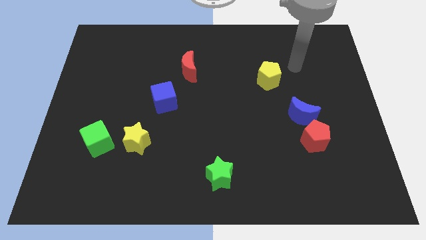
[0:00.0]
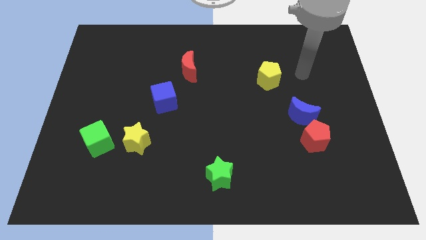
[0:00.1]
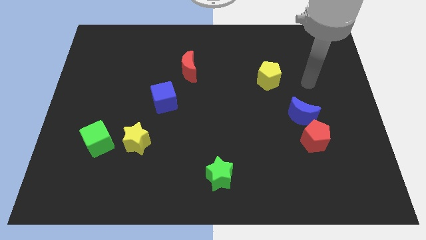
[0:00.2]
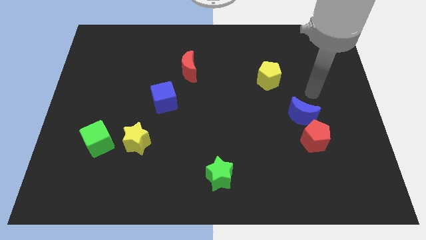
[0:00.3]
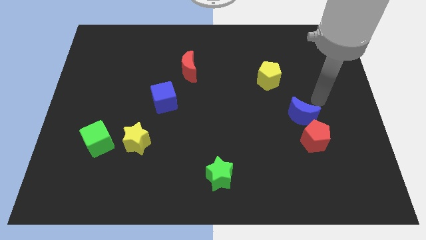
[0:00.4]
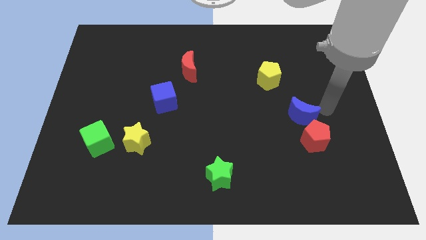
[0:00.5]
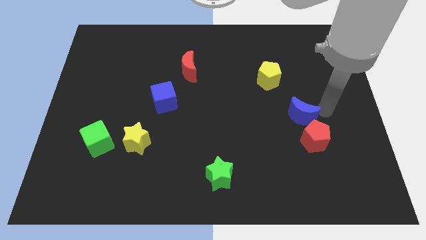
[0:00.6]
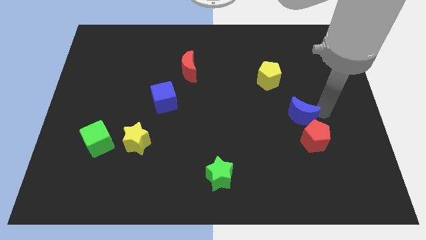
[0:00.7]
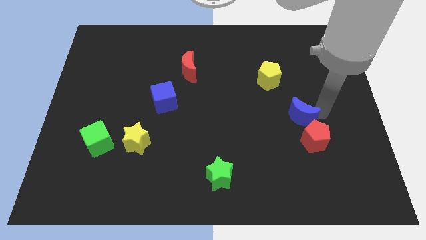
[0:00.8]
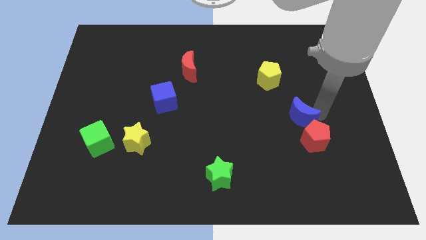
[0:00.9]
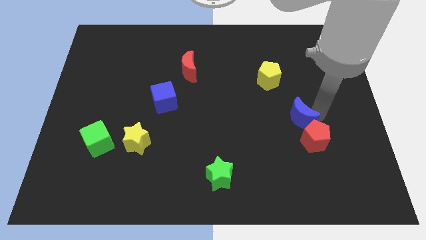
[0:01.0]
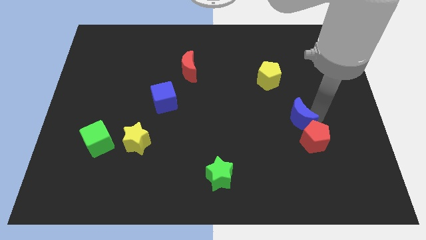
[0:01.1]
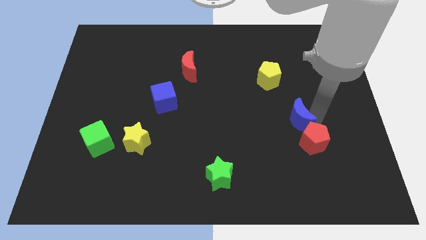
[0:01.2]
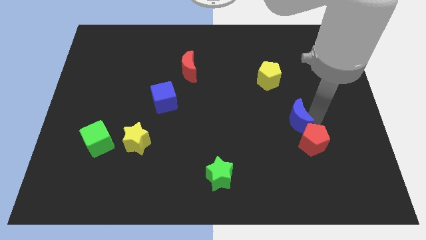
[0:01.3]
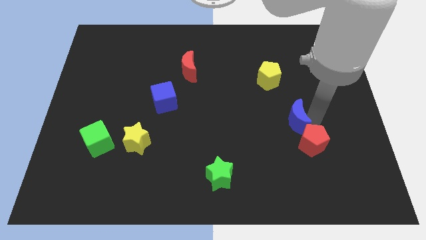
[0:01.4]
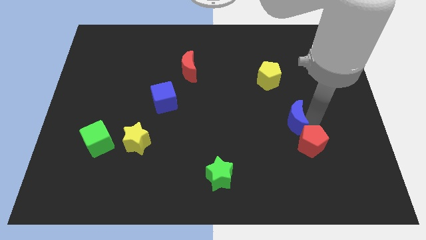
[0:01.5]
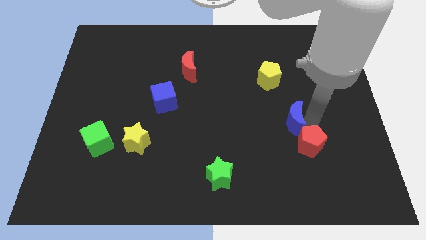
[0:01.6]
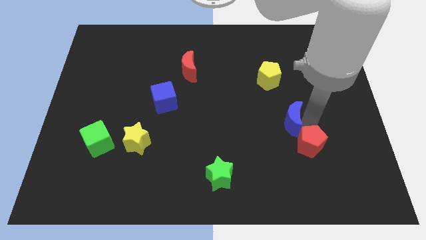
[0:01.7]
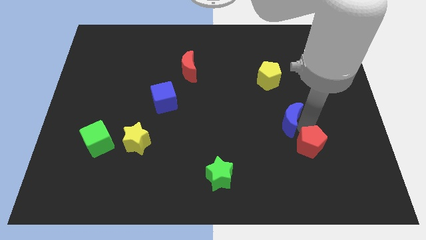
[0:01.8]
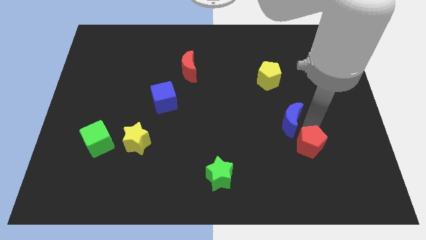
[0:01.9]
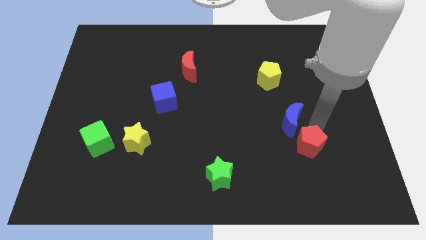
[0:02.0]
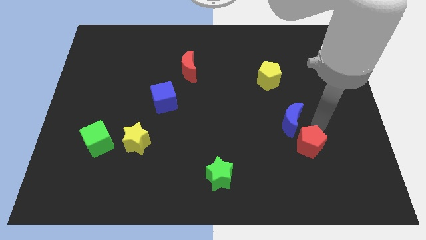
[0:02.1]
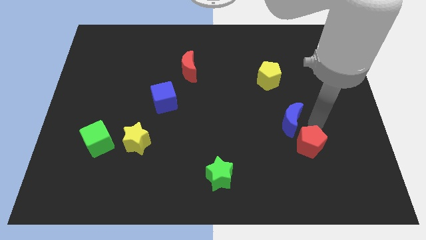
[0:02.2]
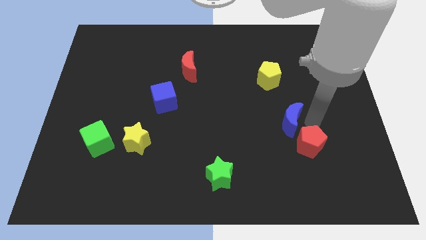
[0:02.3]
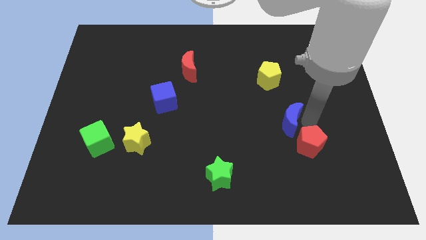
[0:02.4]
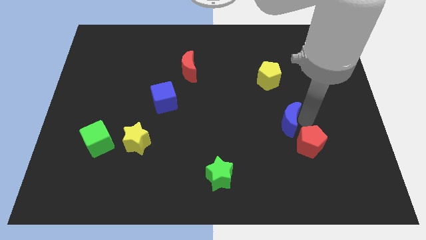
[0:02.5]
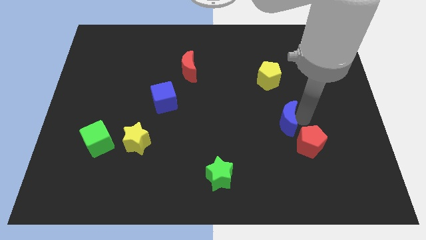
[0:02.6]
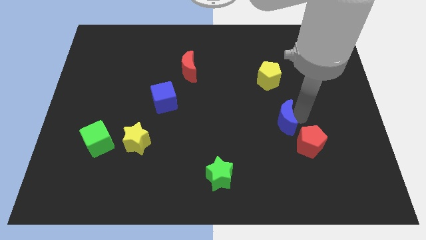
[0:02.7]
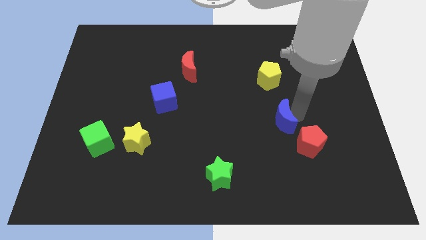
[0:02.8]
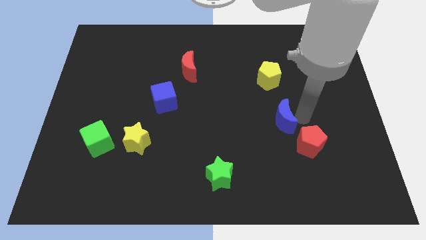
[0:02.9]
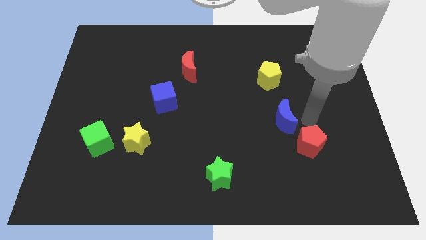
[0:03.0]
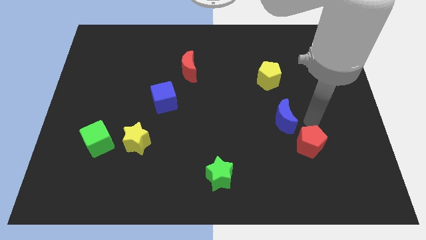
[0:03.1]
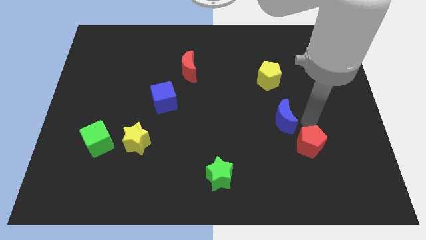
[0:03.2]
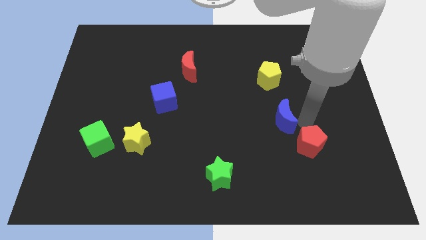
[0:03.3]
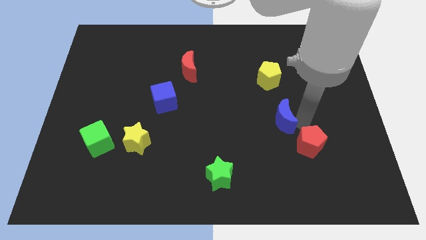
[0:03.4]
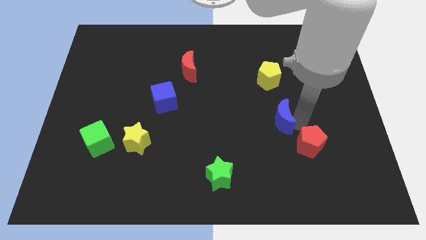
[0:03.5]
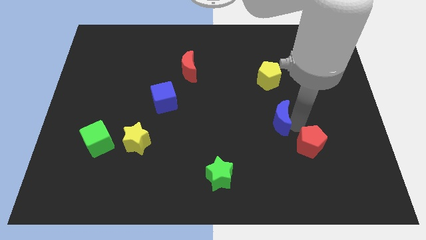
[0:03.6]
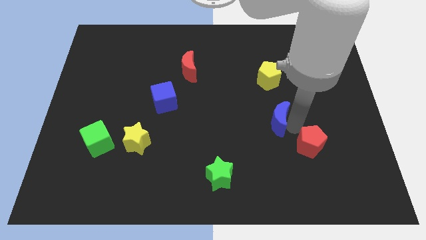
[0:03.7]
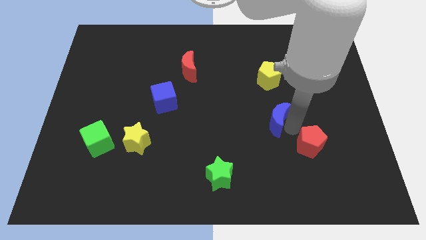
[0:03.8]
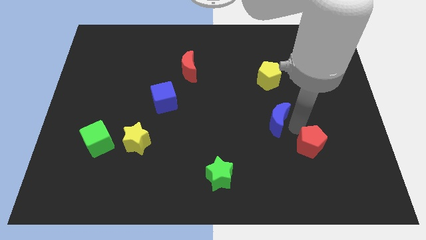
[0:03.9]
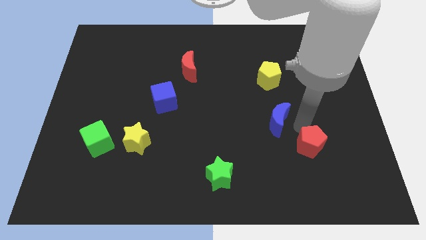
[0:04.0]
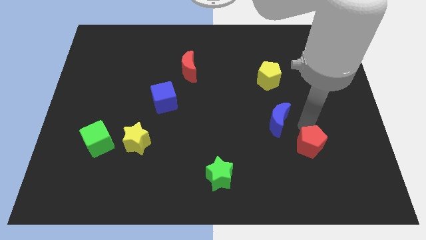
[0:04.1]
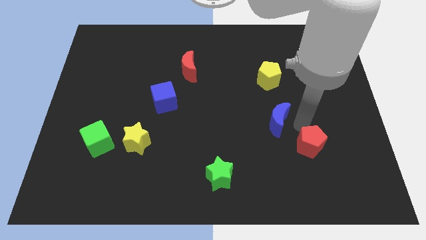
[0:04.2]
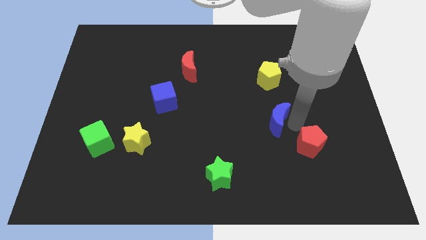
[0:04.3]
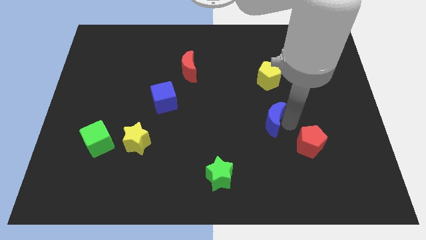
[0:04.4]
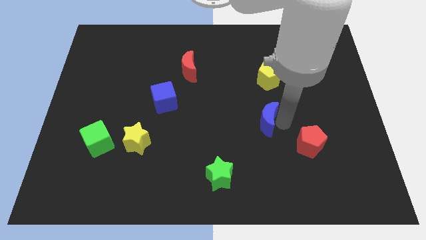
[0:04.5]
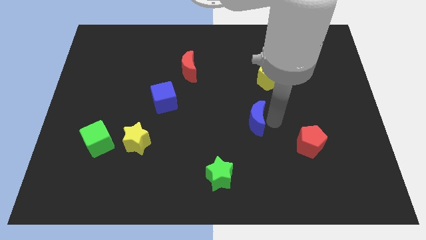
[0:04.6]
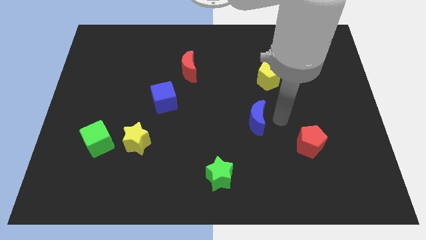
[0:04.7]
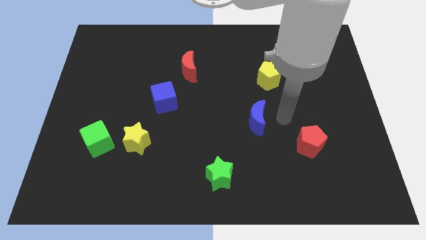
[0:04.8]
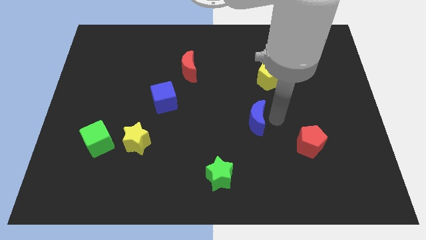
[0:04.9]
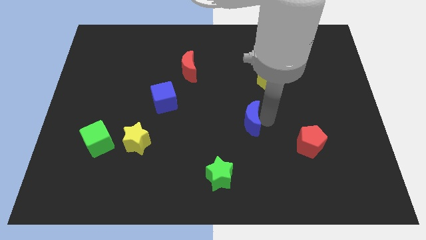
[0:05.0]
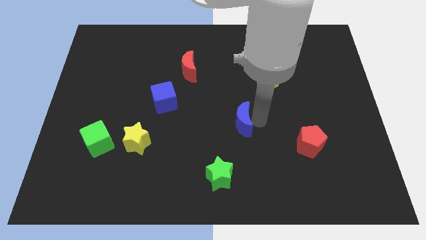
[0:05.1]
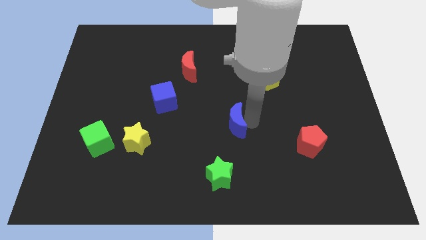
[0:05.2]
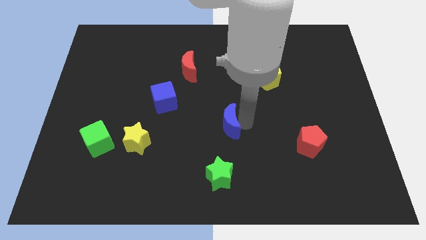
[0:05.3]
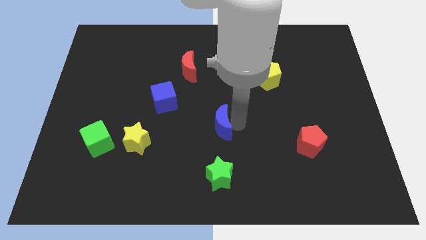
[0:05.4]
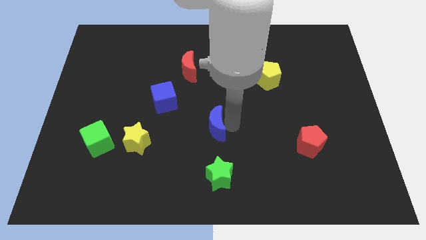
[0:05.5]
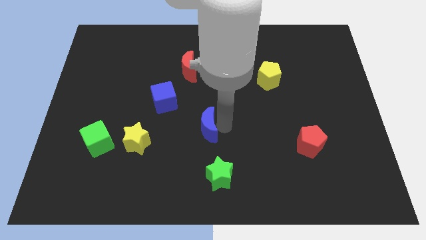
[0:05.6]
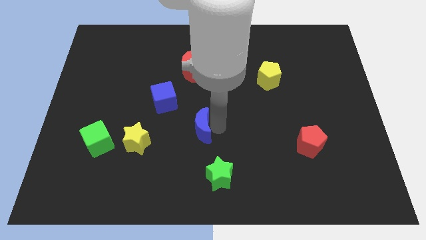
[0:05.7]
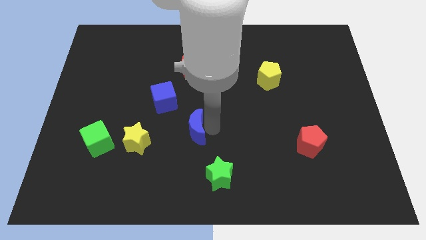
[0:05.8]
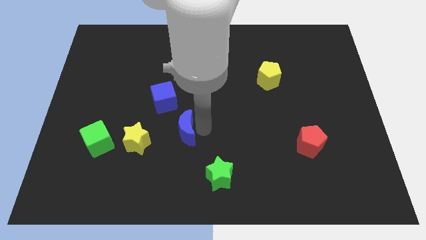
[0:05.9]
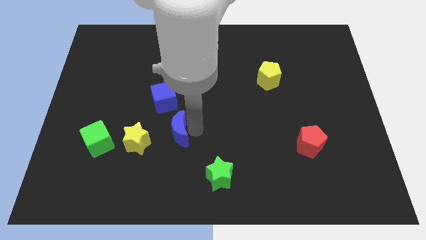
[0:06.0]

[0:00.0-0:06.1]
move the blue moon to the bottom side of the blue cube

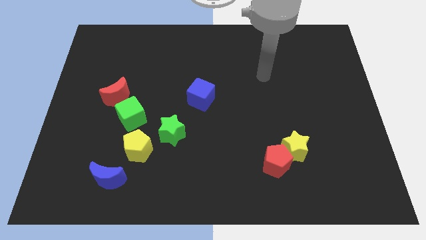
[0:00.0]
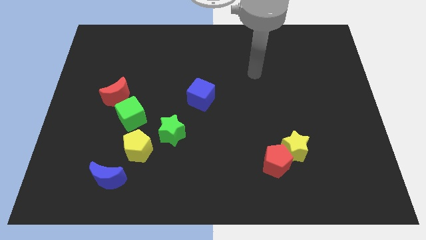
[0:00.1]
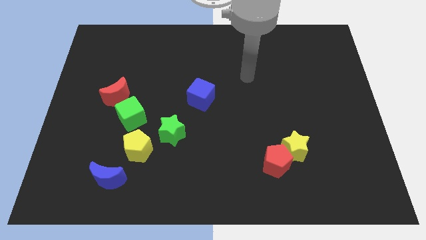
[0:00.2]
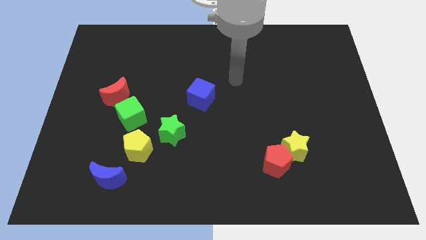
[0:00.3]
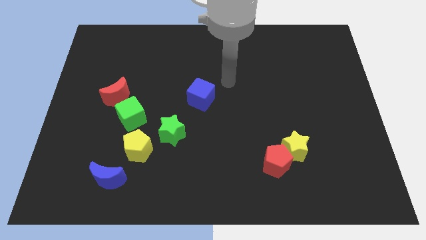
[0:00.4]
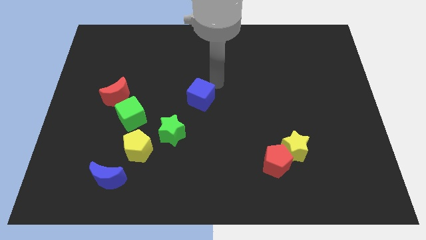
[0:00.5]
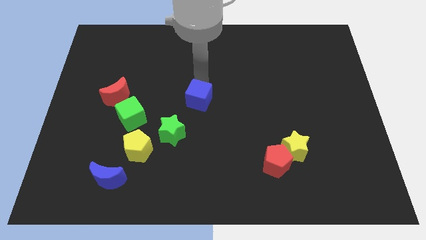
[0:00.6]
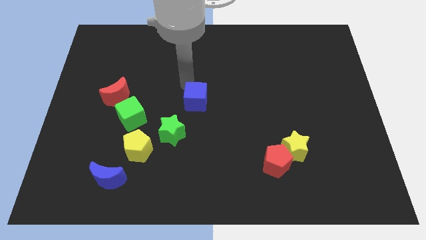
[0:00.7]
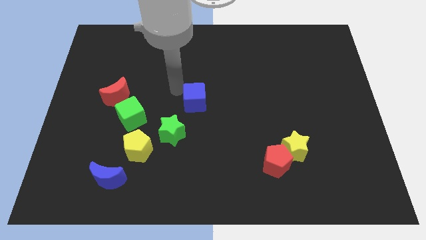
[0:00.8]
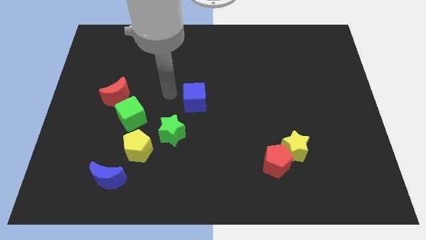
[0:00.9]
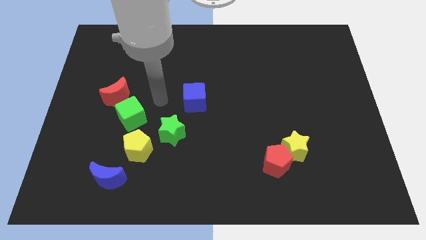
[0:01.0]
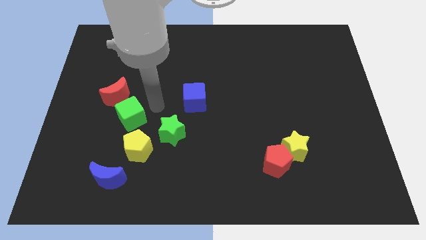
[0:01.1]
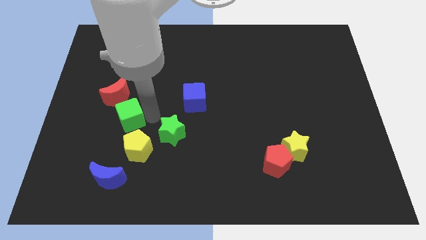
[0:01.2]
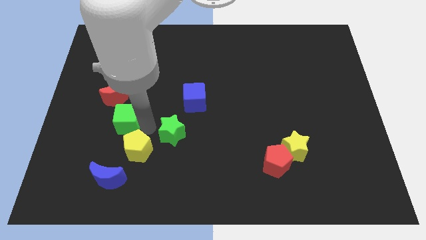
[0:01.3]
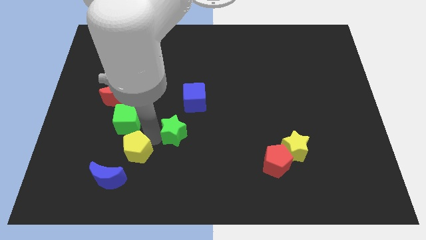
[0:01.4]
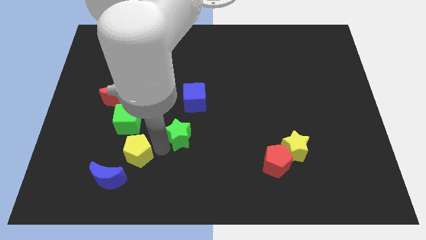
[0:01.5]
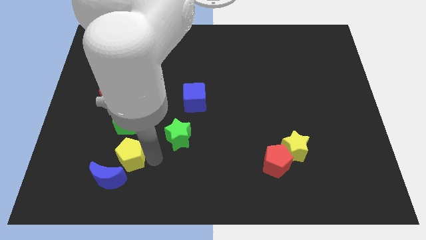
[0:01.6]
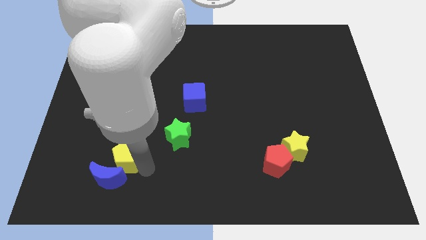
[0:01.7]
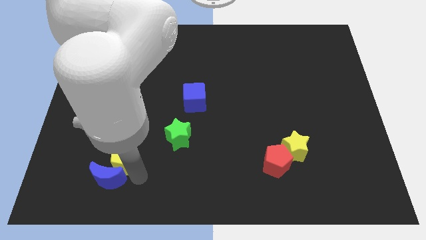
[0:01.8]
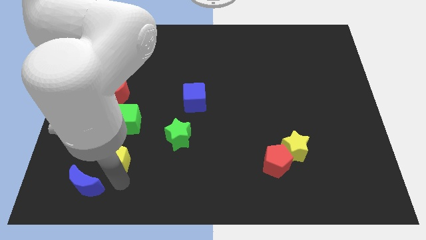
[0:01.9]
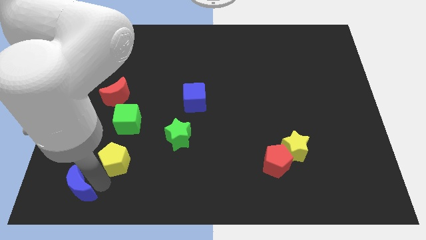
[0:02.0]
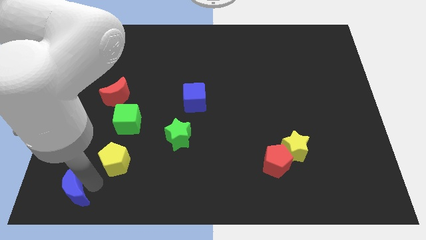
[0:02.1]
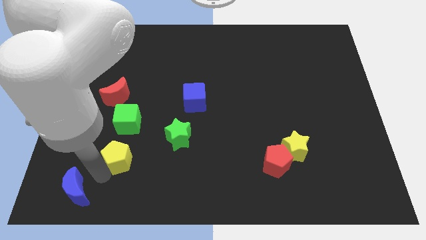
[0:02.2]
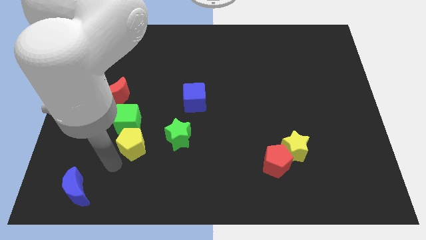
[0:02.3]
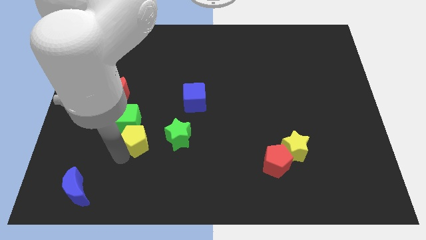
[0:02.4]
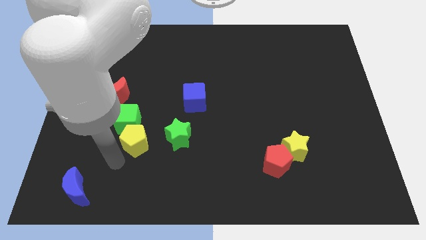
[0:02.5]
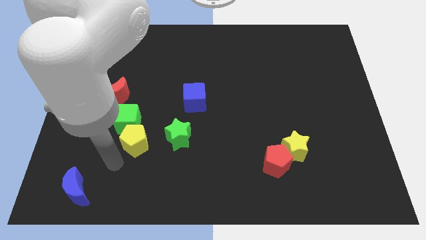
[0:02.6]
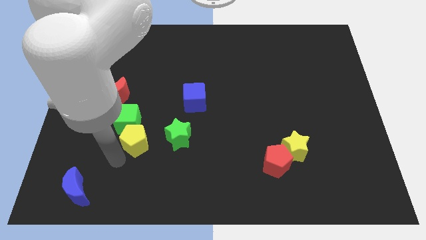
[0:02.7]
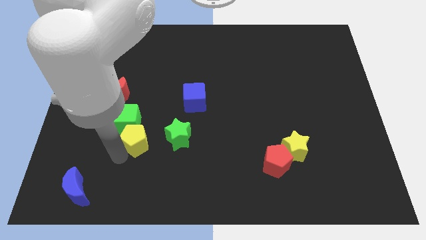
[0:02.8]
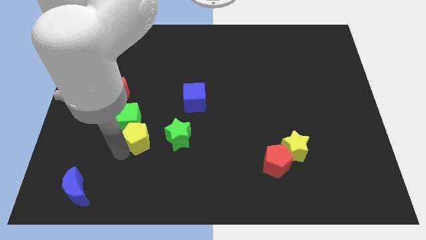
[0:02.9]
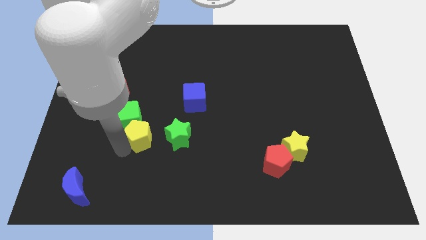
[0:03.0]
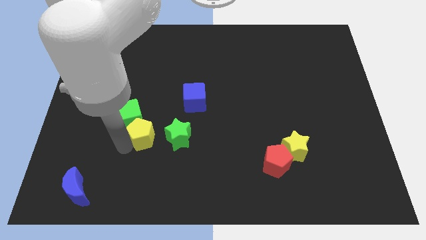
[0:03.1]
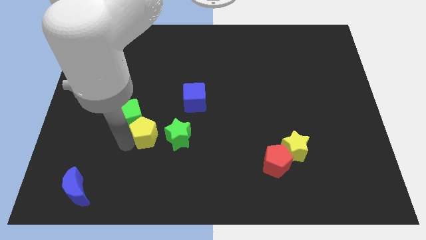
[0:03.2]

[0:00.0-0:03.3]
put the yellow pentagon to the top left side of the green star
